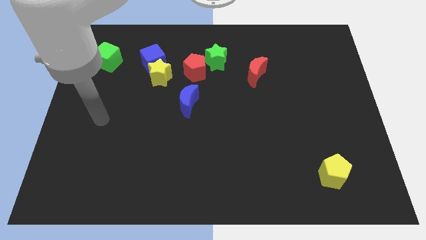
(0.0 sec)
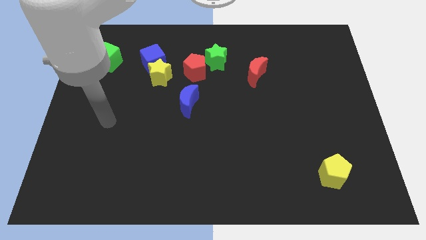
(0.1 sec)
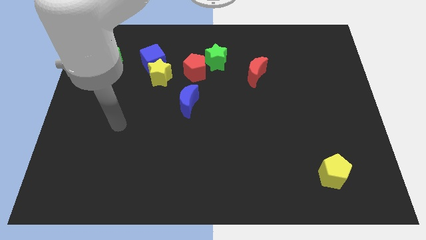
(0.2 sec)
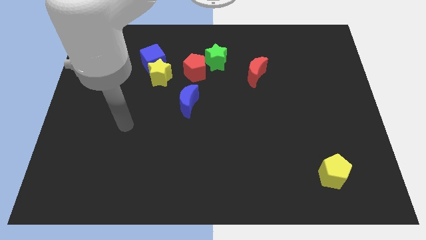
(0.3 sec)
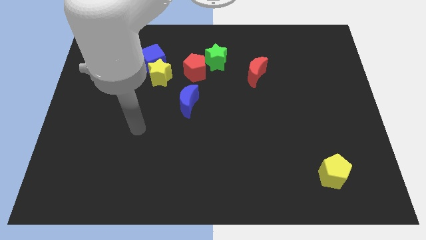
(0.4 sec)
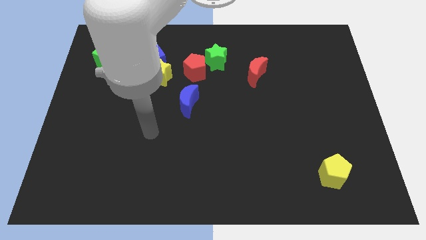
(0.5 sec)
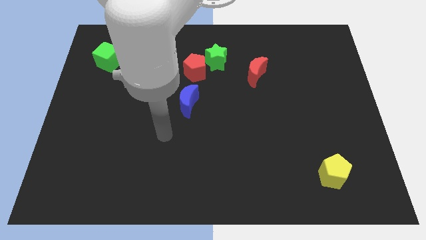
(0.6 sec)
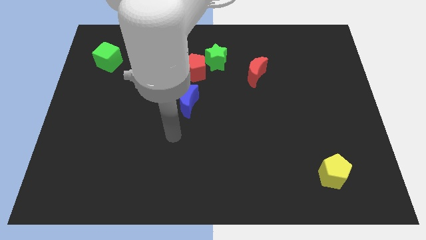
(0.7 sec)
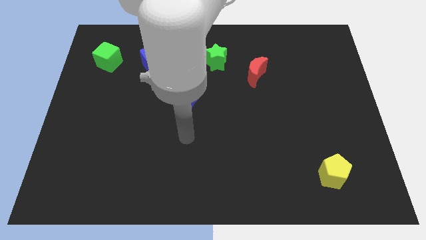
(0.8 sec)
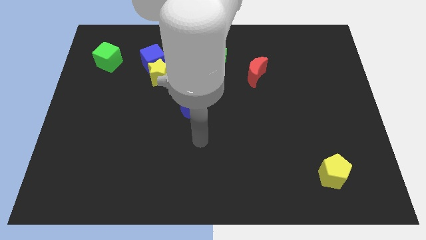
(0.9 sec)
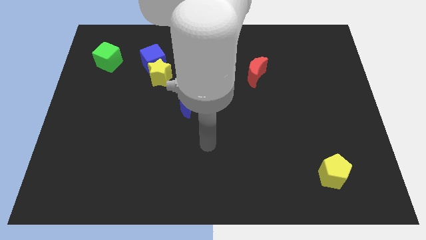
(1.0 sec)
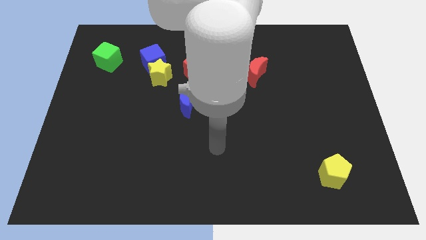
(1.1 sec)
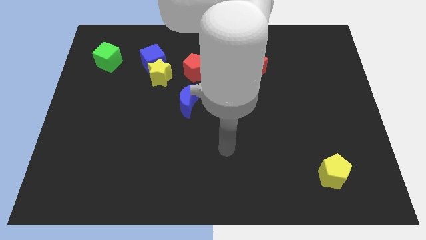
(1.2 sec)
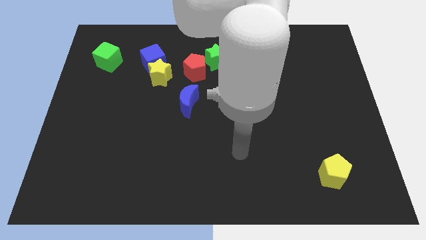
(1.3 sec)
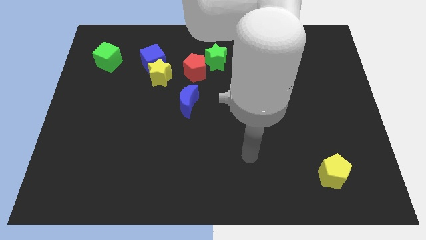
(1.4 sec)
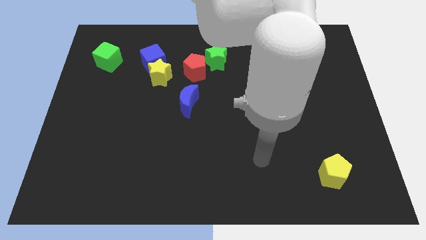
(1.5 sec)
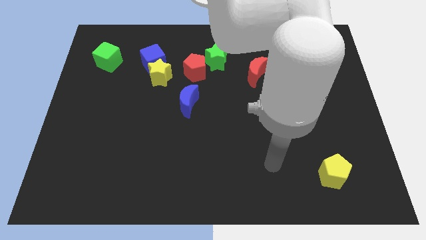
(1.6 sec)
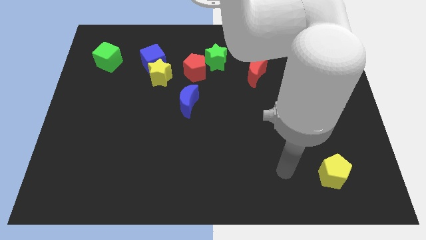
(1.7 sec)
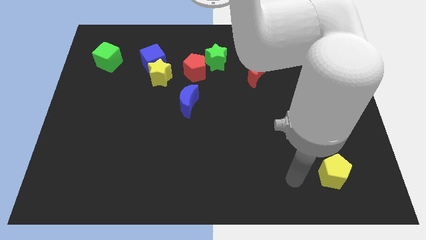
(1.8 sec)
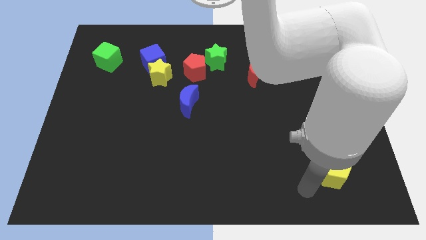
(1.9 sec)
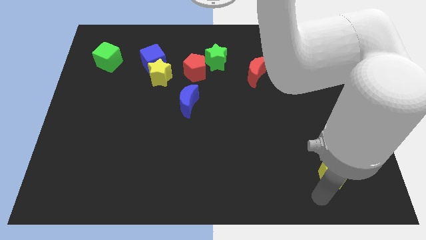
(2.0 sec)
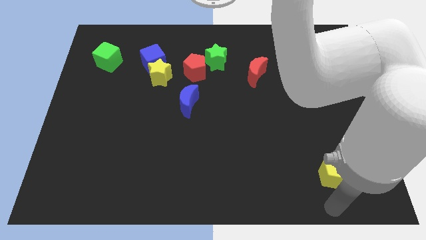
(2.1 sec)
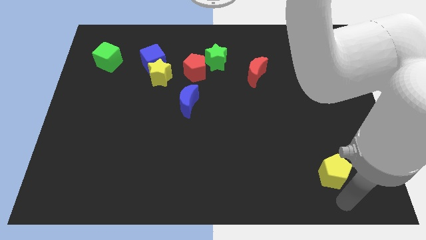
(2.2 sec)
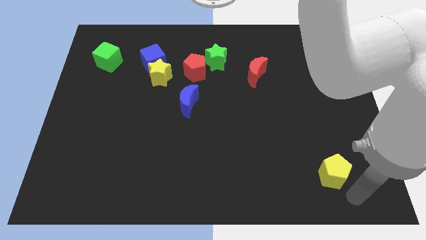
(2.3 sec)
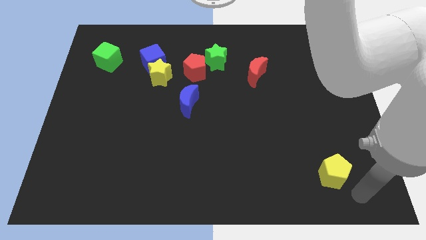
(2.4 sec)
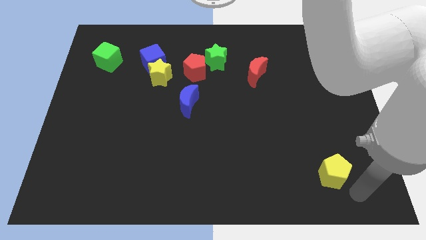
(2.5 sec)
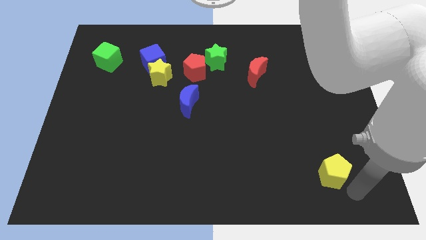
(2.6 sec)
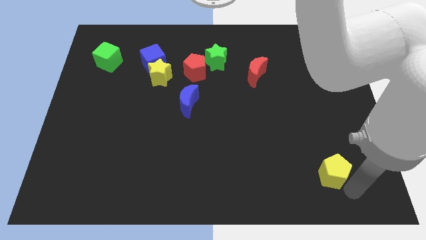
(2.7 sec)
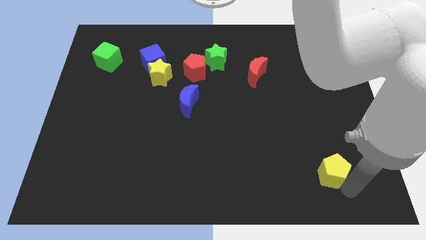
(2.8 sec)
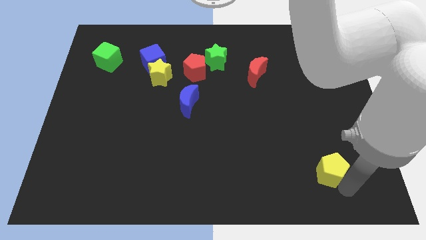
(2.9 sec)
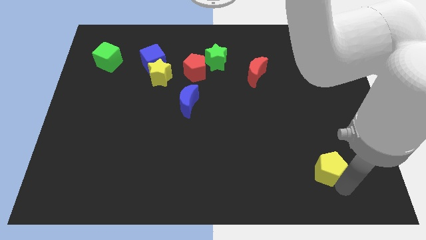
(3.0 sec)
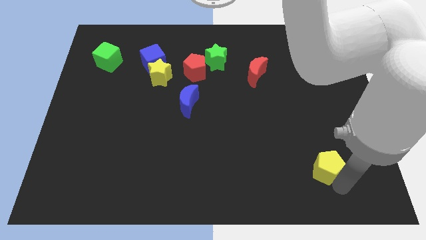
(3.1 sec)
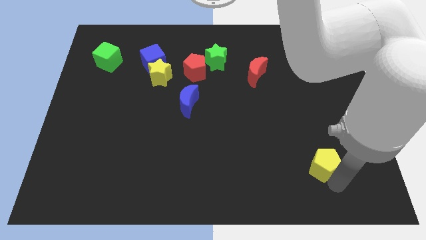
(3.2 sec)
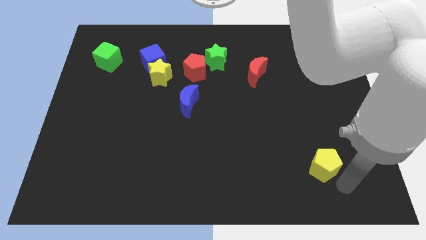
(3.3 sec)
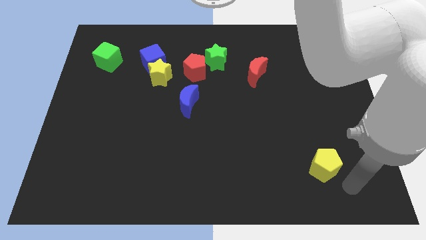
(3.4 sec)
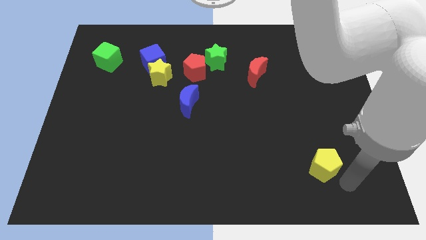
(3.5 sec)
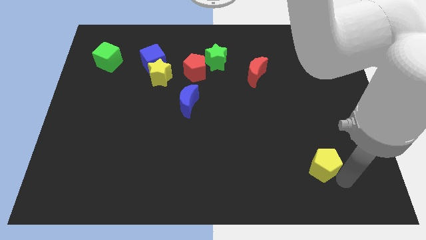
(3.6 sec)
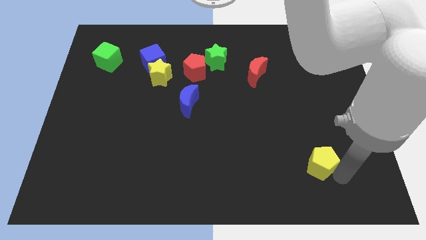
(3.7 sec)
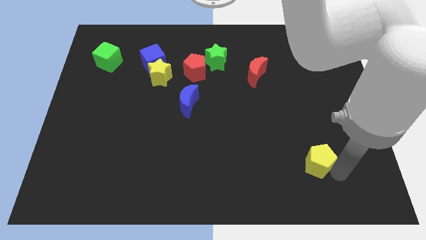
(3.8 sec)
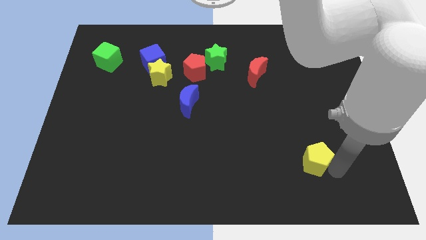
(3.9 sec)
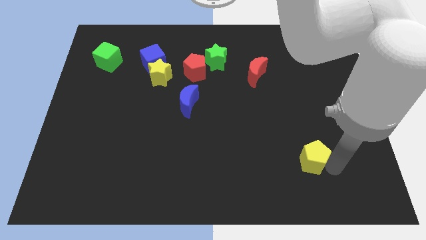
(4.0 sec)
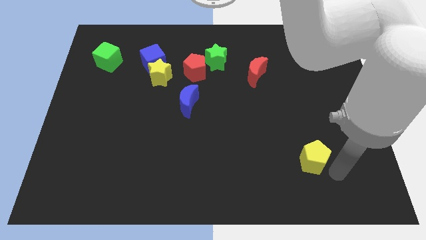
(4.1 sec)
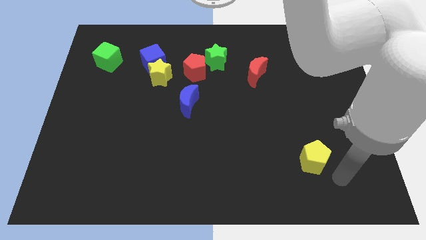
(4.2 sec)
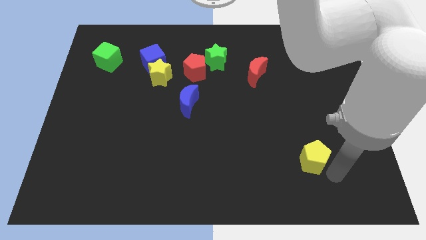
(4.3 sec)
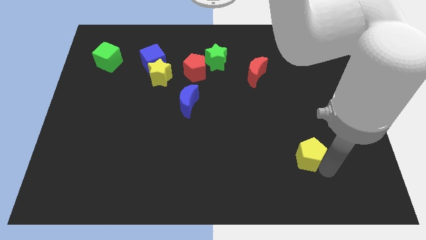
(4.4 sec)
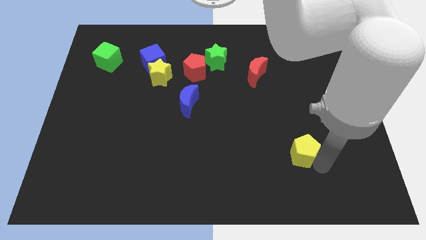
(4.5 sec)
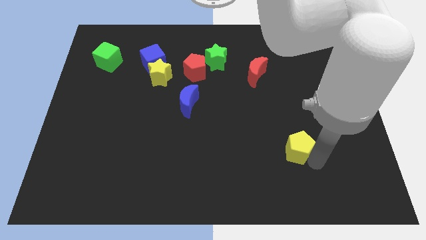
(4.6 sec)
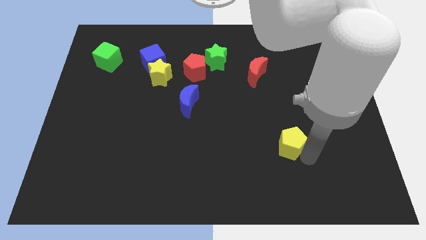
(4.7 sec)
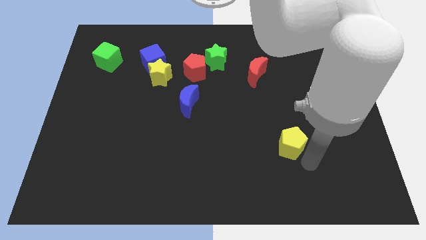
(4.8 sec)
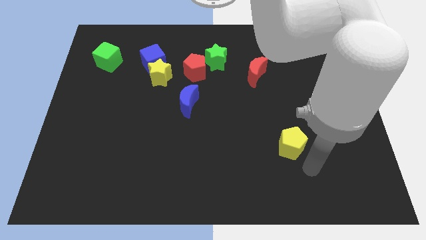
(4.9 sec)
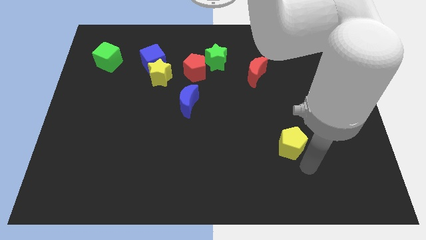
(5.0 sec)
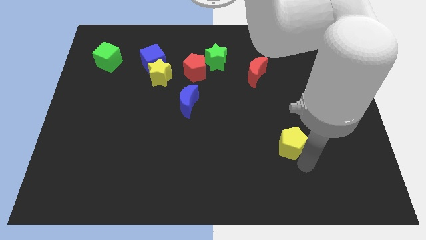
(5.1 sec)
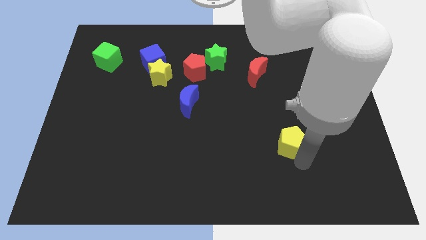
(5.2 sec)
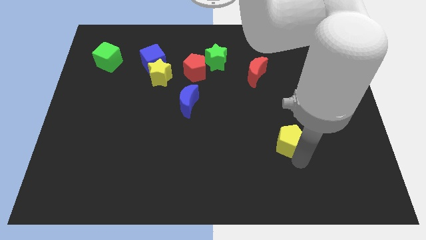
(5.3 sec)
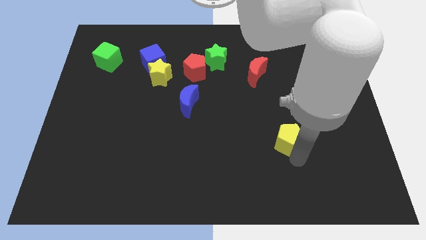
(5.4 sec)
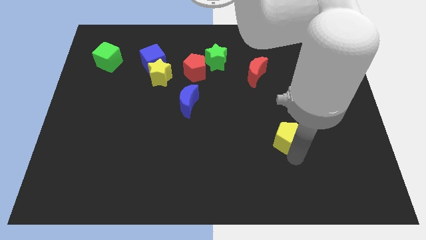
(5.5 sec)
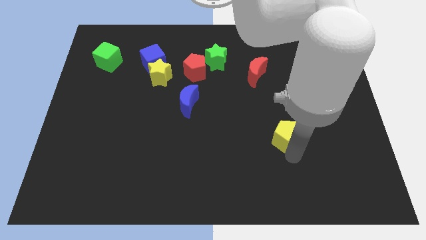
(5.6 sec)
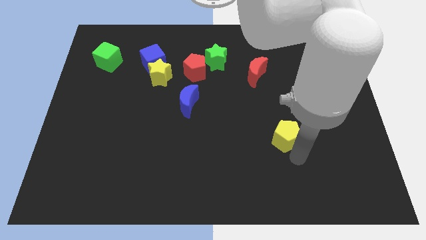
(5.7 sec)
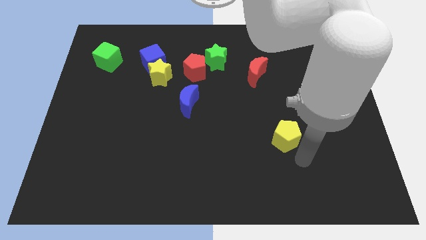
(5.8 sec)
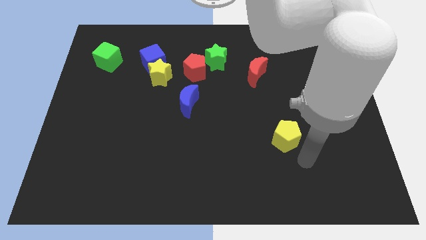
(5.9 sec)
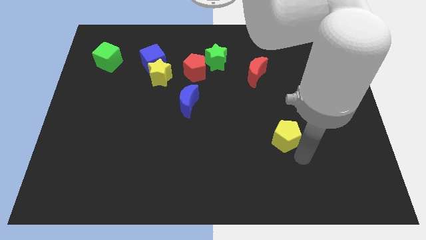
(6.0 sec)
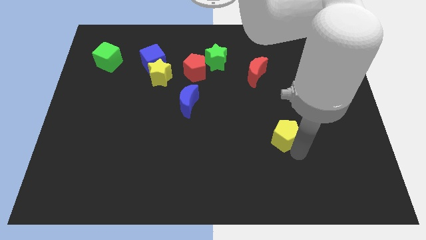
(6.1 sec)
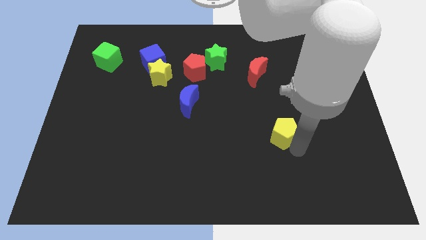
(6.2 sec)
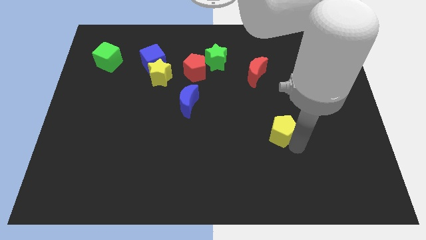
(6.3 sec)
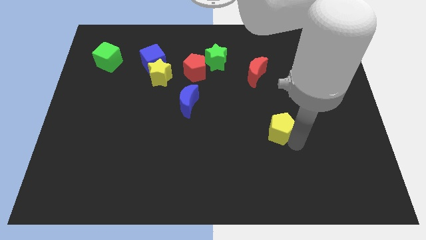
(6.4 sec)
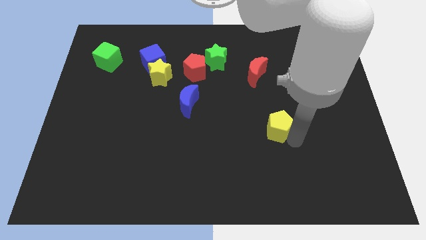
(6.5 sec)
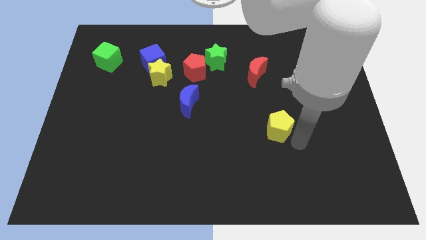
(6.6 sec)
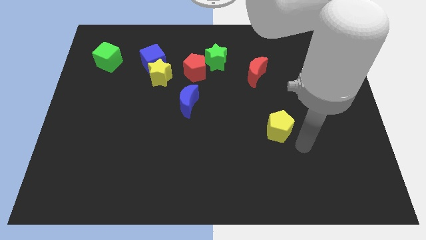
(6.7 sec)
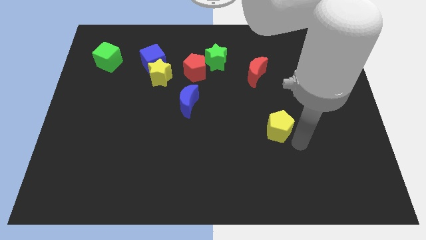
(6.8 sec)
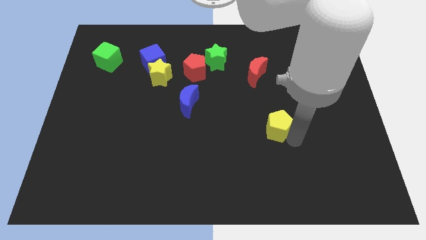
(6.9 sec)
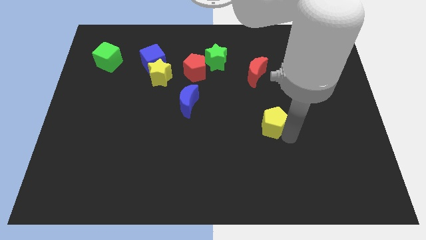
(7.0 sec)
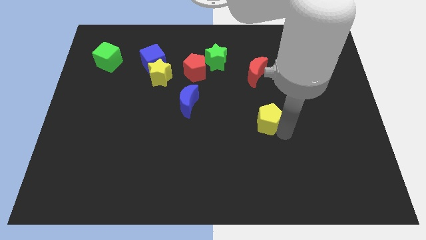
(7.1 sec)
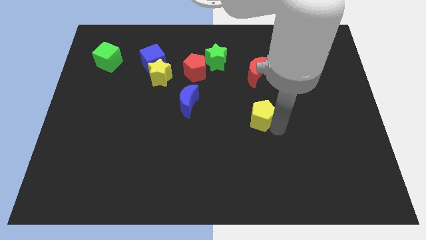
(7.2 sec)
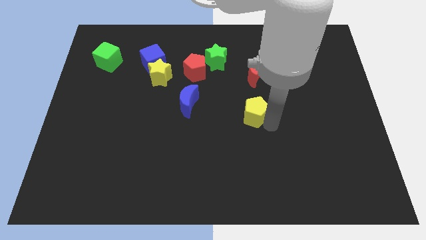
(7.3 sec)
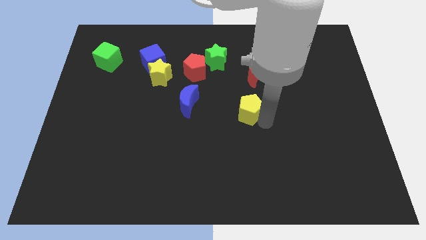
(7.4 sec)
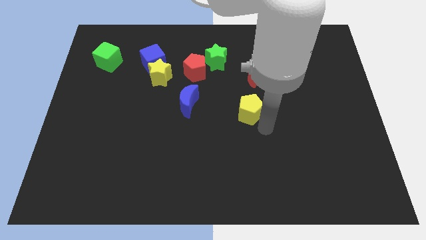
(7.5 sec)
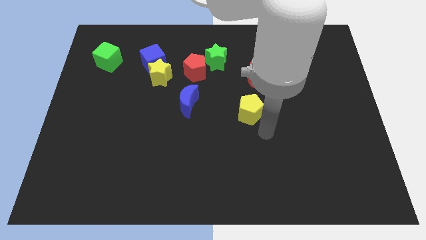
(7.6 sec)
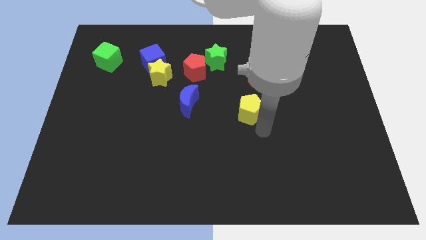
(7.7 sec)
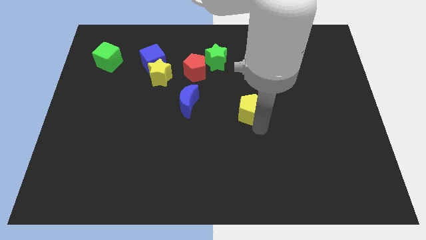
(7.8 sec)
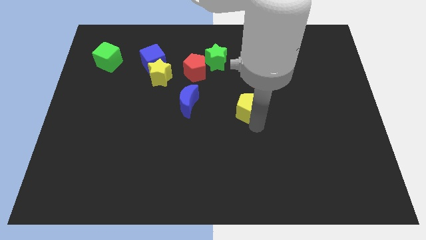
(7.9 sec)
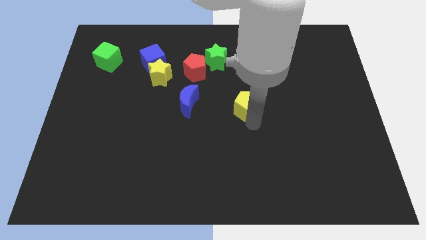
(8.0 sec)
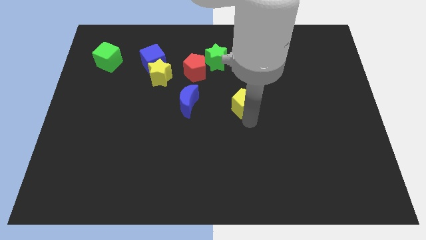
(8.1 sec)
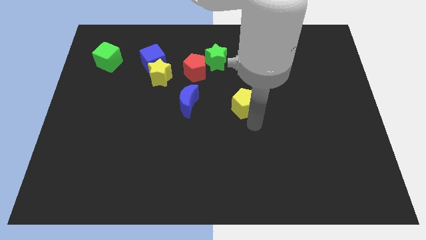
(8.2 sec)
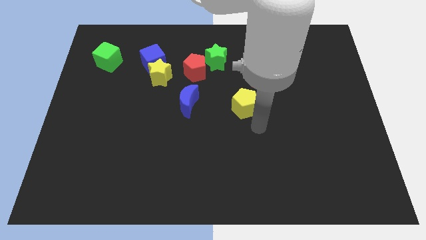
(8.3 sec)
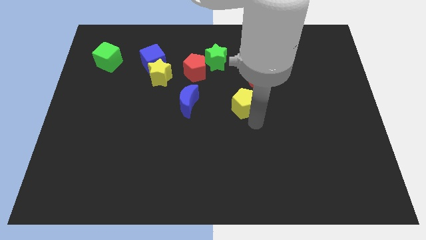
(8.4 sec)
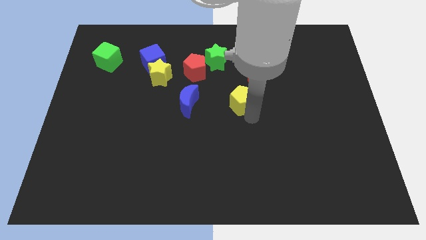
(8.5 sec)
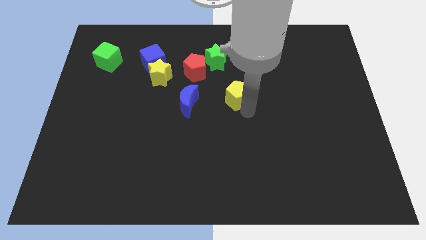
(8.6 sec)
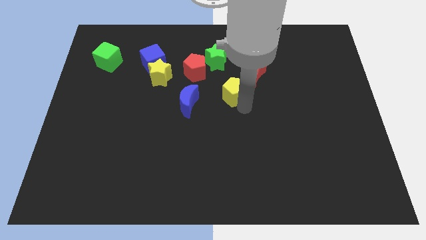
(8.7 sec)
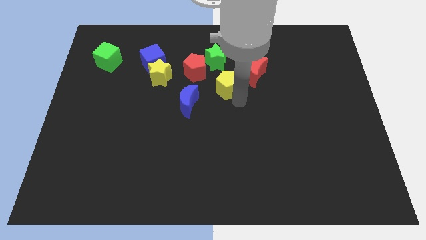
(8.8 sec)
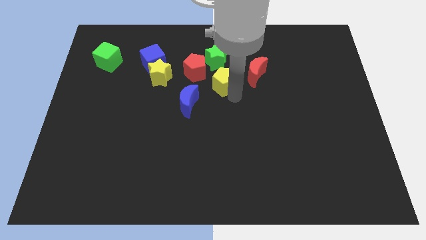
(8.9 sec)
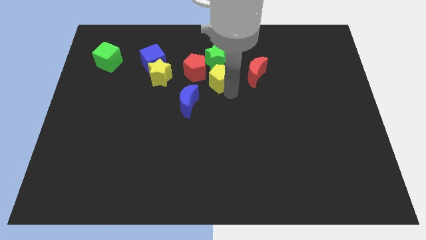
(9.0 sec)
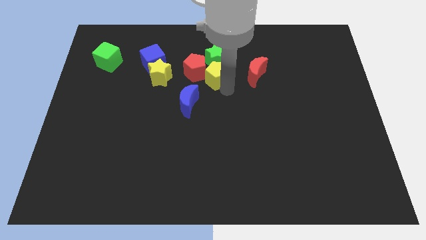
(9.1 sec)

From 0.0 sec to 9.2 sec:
slide the yellow pentagon next to the green star
